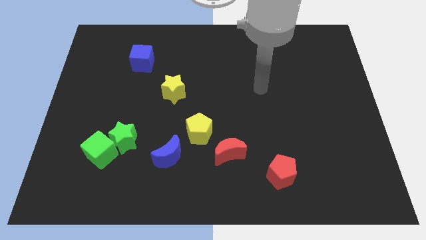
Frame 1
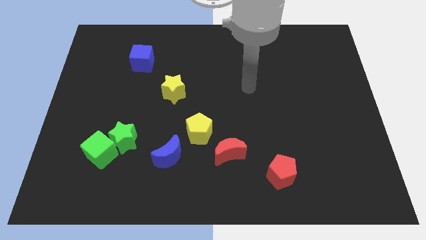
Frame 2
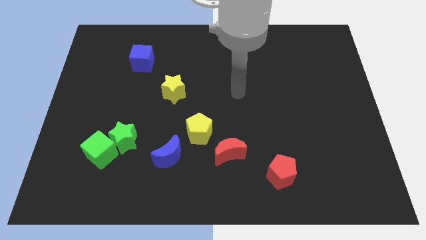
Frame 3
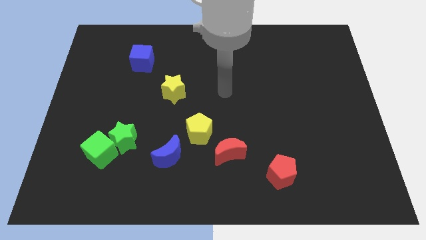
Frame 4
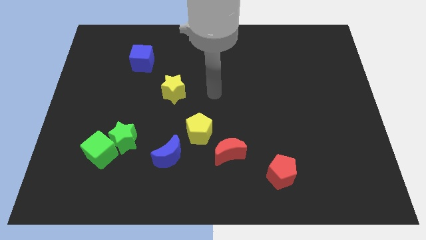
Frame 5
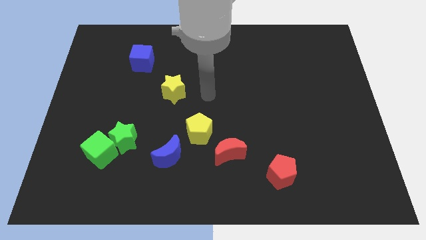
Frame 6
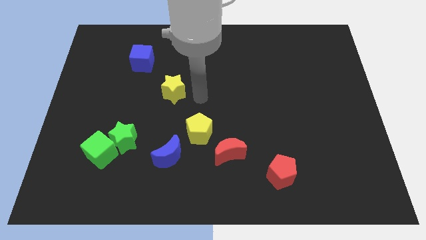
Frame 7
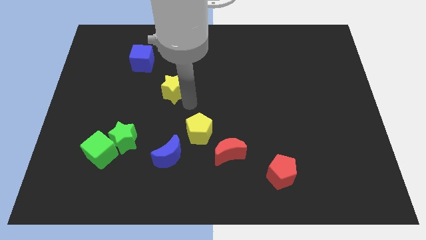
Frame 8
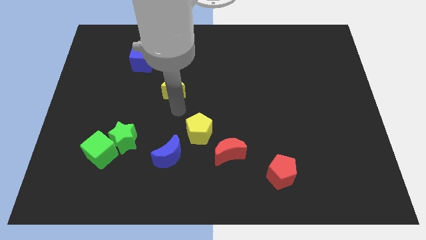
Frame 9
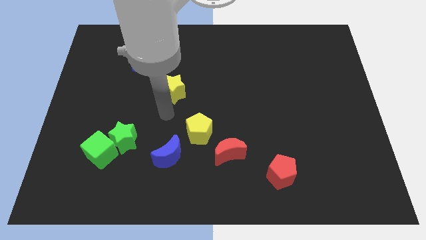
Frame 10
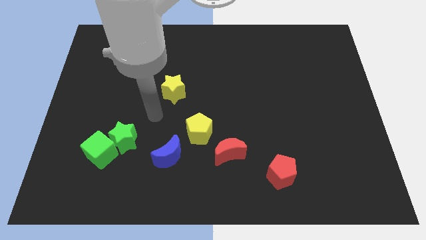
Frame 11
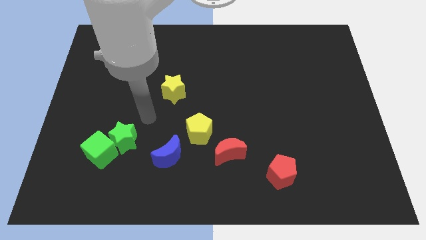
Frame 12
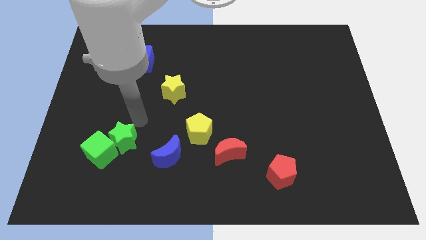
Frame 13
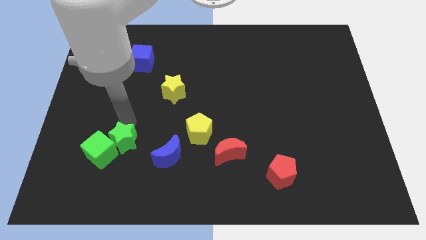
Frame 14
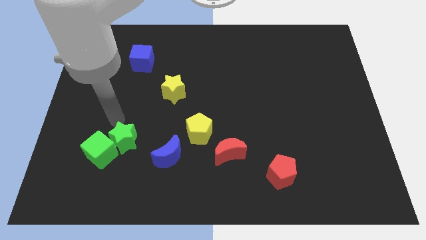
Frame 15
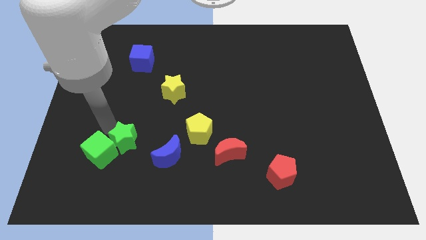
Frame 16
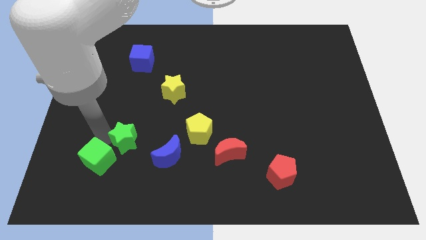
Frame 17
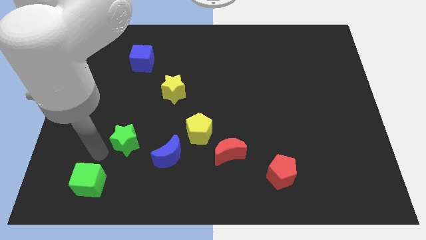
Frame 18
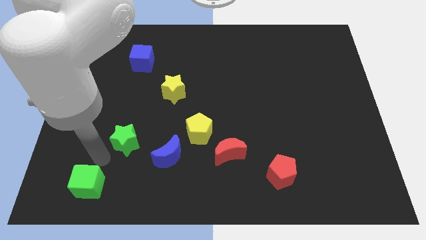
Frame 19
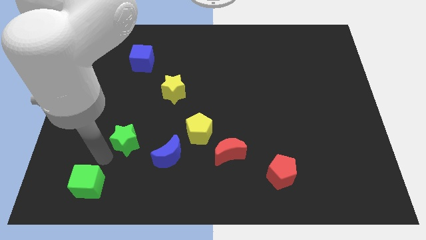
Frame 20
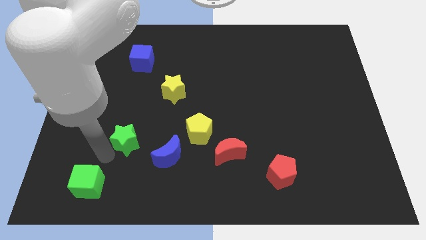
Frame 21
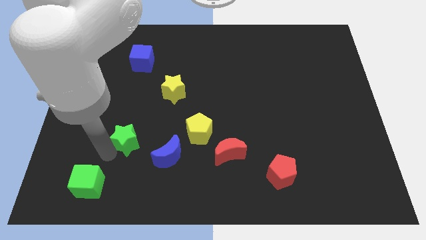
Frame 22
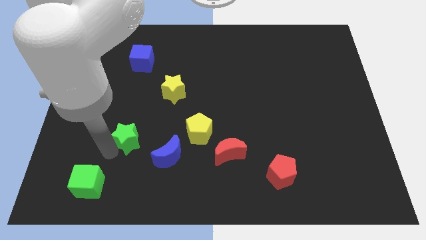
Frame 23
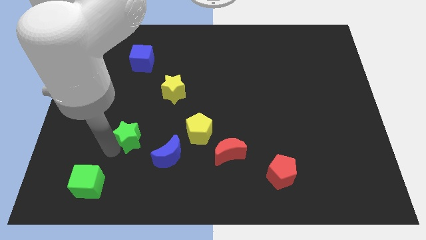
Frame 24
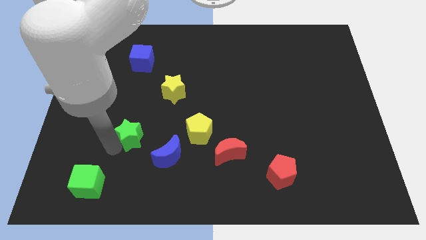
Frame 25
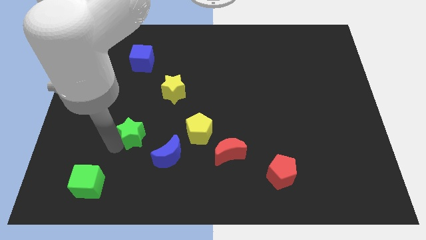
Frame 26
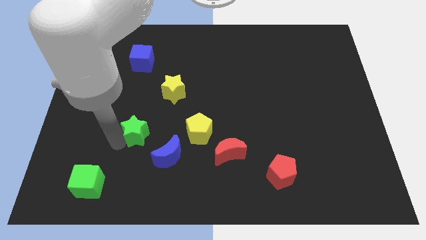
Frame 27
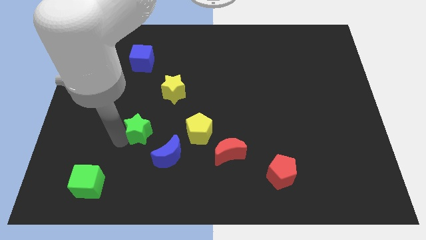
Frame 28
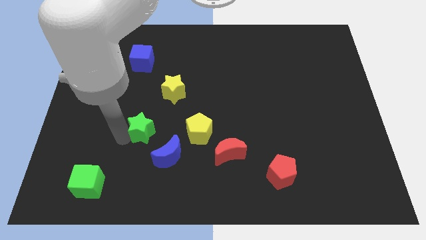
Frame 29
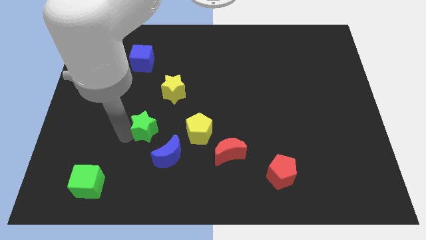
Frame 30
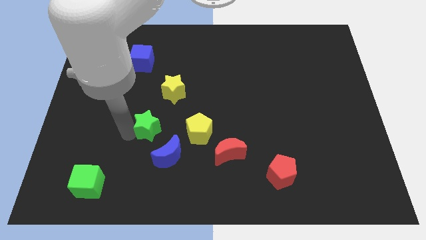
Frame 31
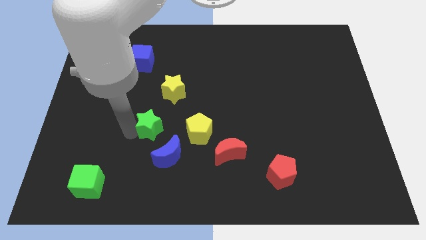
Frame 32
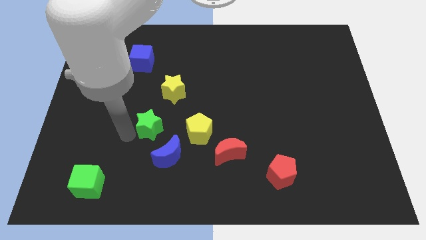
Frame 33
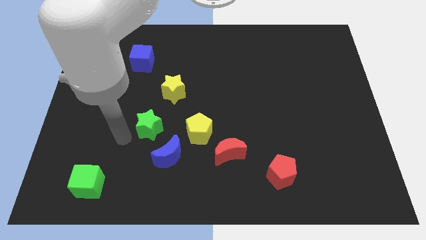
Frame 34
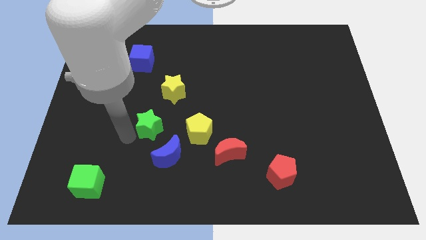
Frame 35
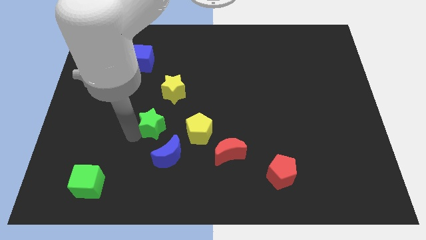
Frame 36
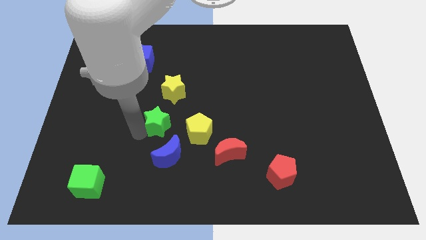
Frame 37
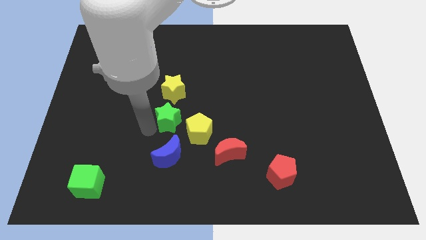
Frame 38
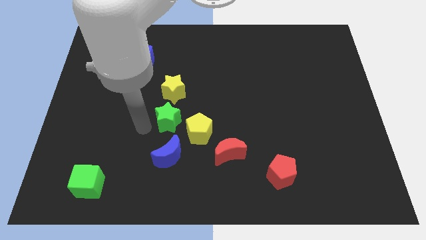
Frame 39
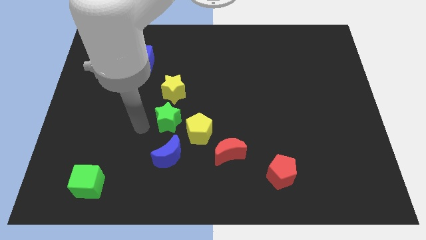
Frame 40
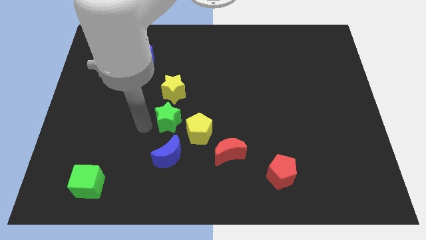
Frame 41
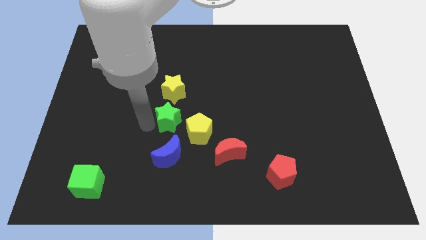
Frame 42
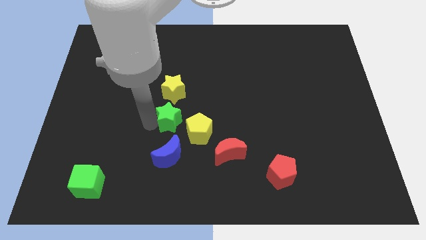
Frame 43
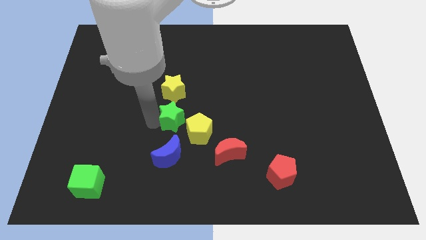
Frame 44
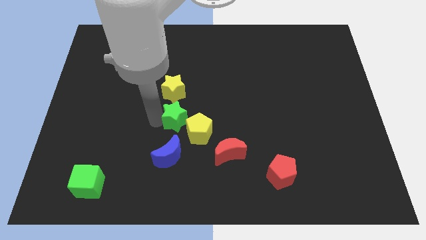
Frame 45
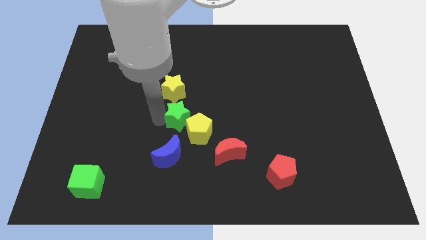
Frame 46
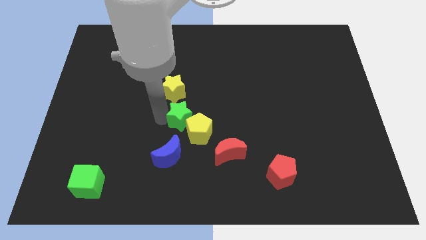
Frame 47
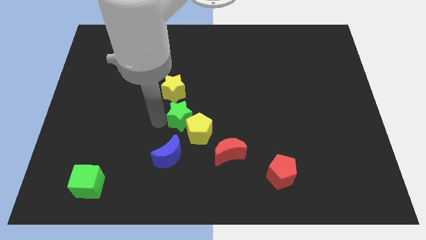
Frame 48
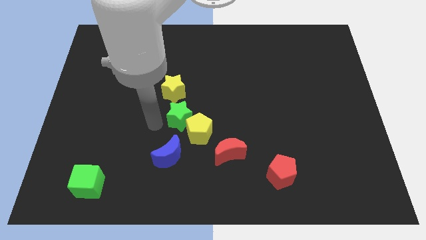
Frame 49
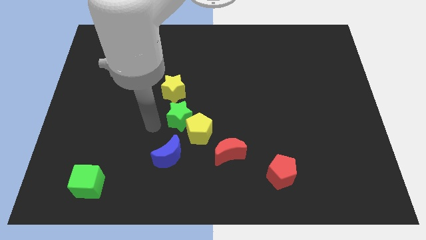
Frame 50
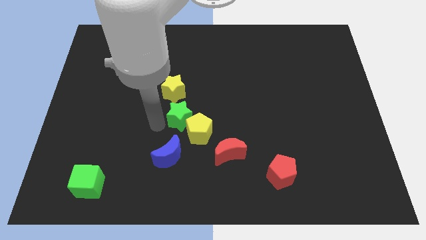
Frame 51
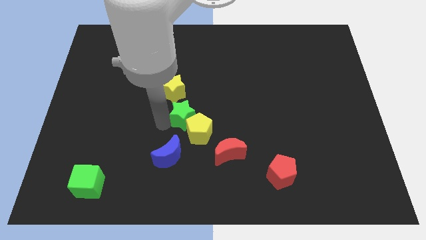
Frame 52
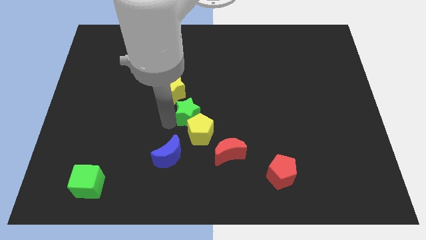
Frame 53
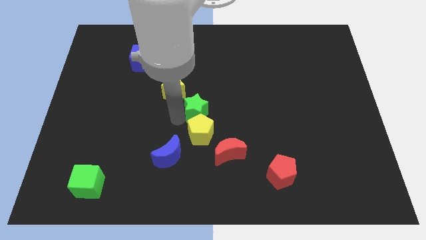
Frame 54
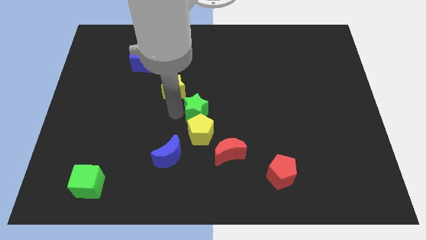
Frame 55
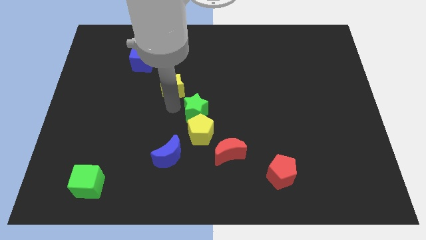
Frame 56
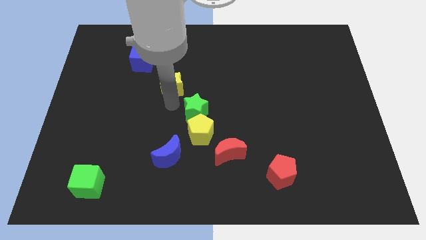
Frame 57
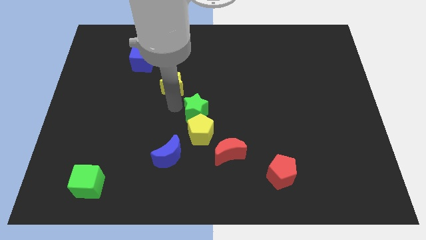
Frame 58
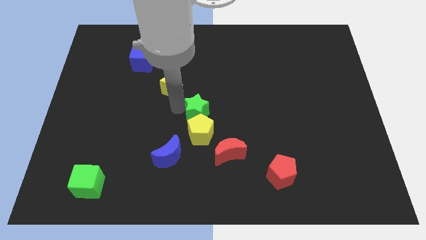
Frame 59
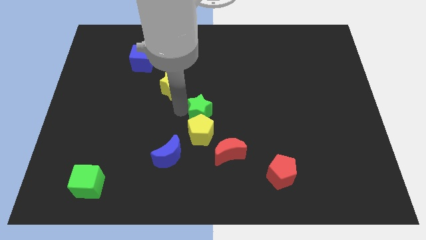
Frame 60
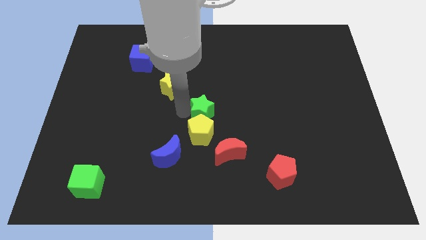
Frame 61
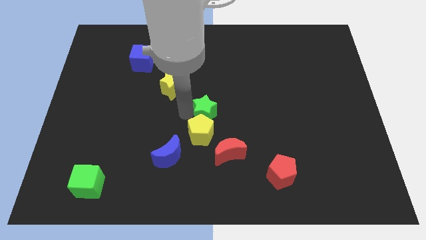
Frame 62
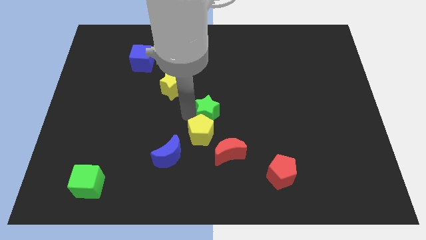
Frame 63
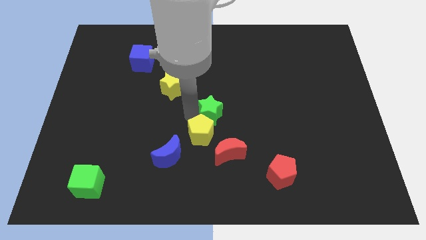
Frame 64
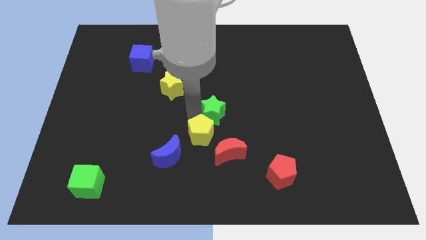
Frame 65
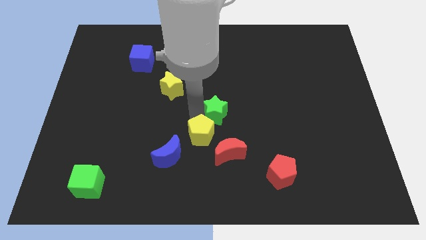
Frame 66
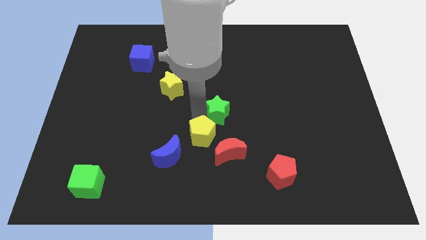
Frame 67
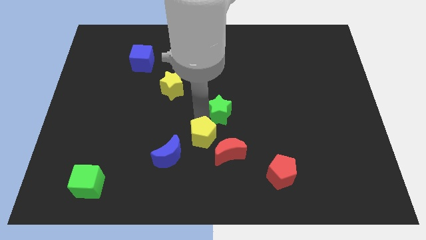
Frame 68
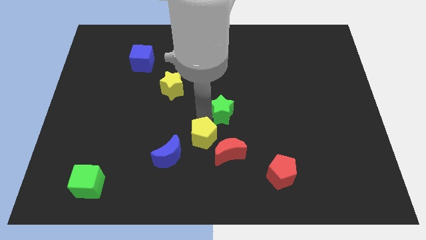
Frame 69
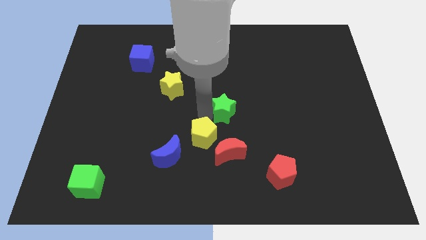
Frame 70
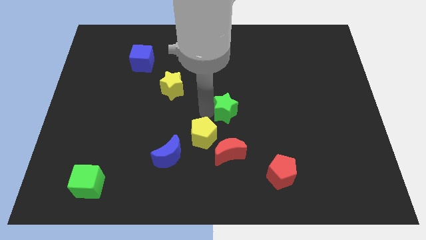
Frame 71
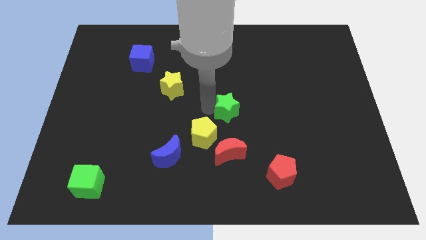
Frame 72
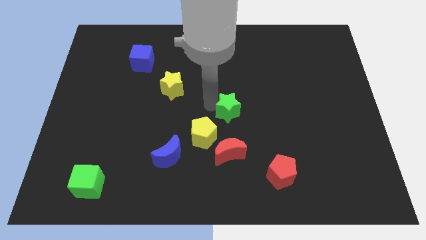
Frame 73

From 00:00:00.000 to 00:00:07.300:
slide the green star right

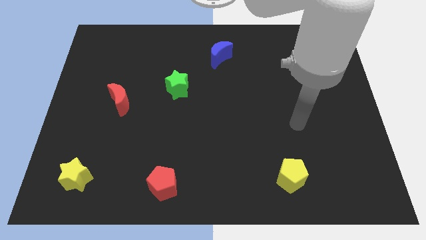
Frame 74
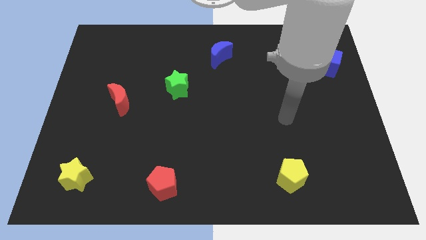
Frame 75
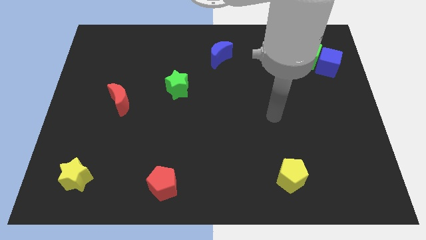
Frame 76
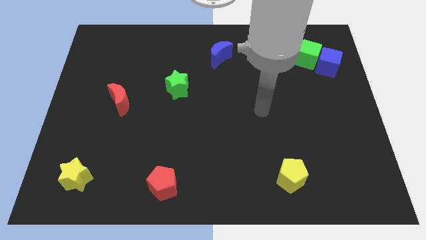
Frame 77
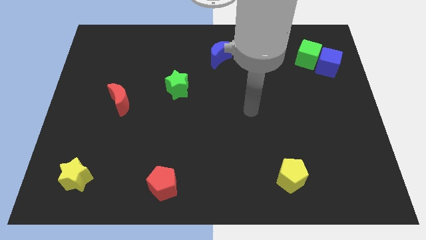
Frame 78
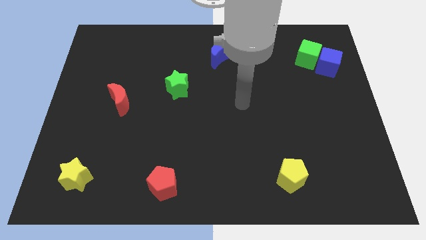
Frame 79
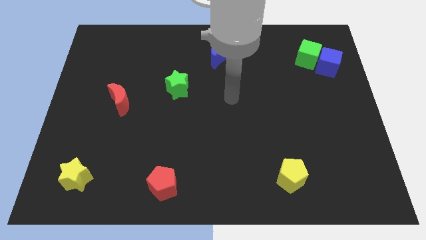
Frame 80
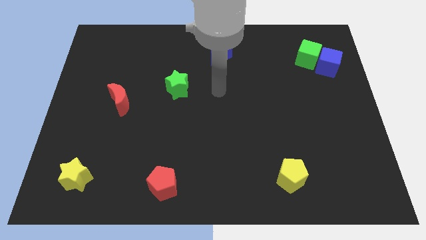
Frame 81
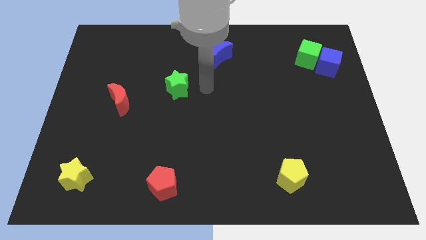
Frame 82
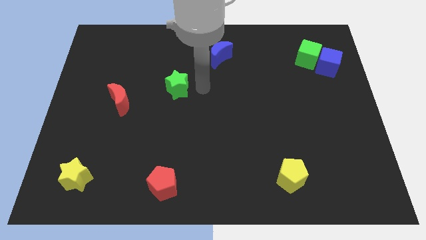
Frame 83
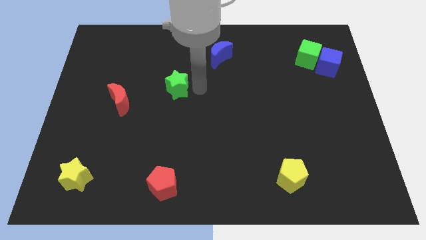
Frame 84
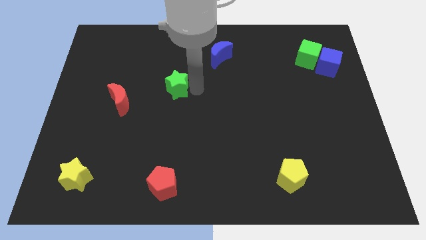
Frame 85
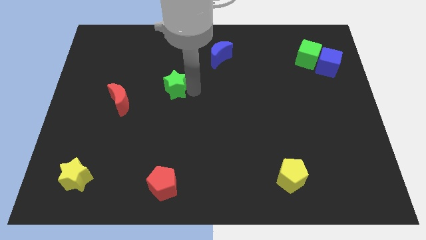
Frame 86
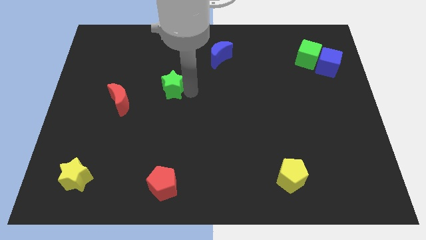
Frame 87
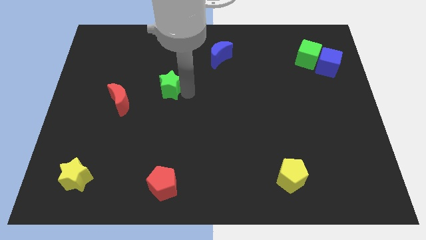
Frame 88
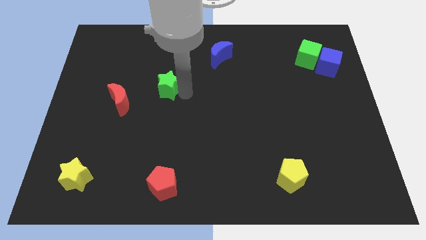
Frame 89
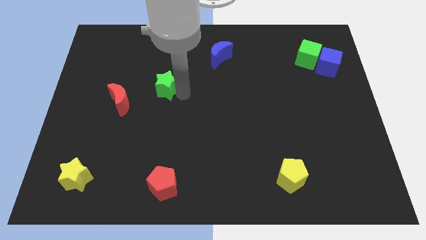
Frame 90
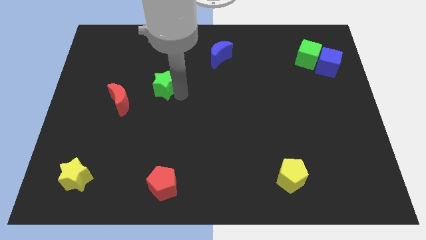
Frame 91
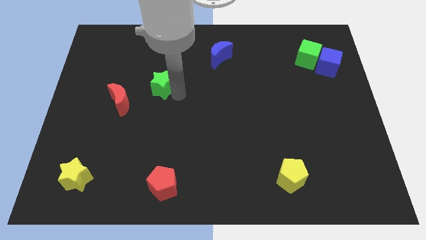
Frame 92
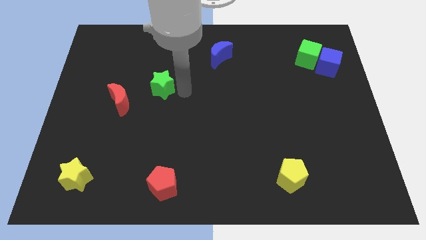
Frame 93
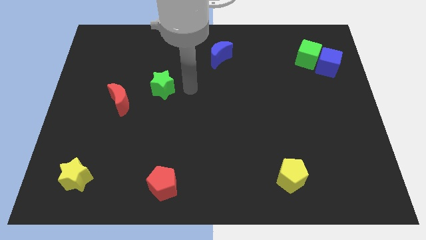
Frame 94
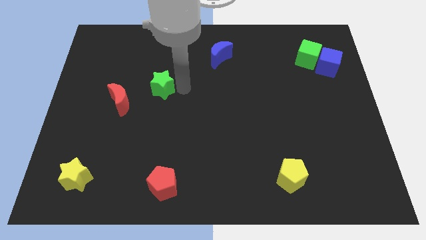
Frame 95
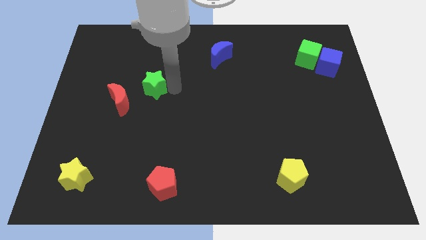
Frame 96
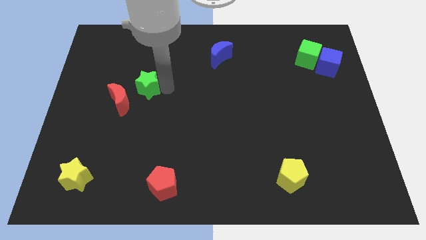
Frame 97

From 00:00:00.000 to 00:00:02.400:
slightly push the green star left
